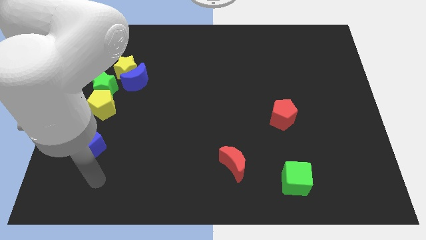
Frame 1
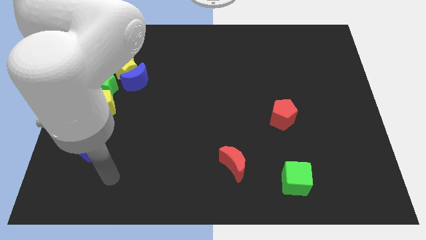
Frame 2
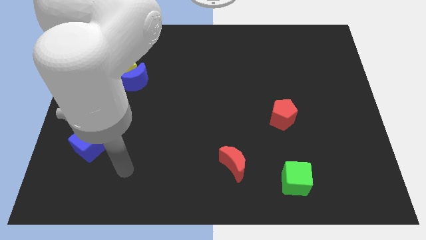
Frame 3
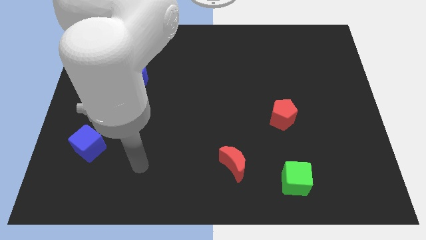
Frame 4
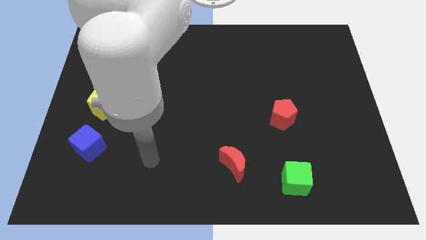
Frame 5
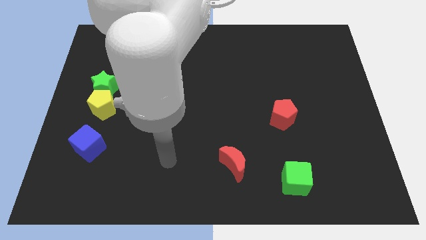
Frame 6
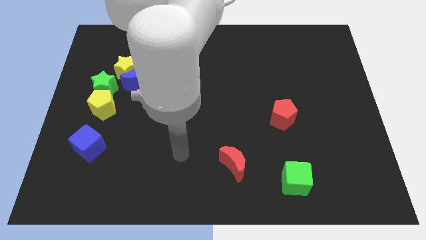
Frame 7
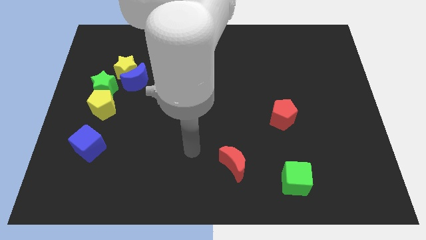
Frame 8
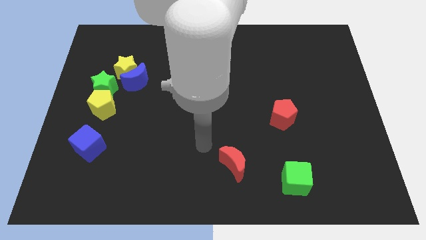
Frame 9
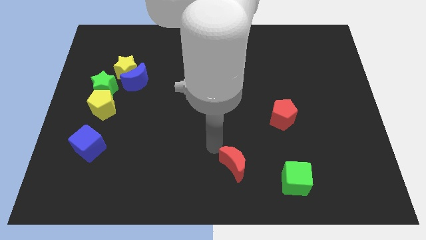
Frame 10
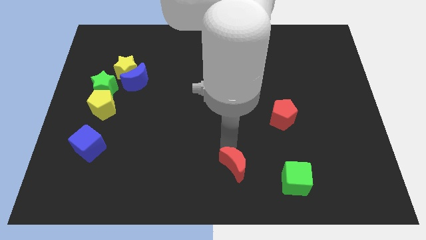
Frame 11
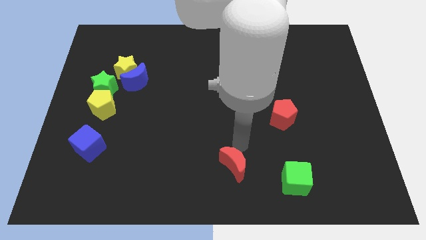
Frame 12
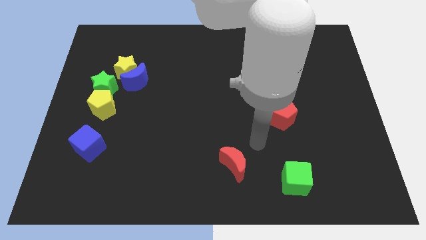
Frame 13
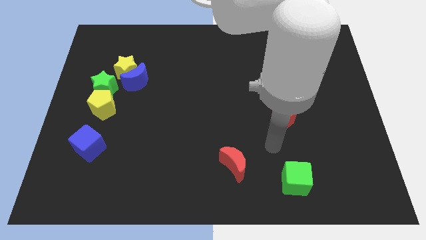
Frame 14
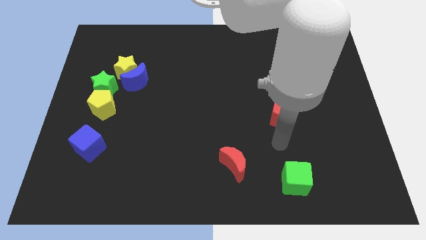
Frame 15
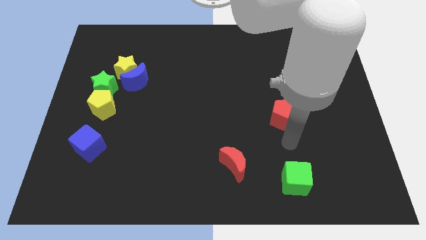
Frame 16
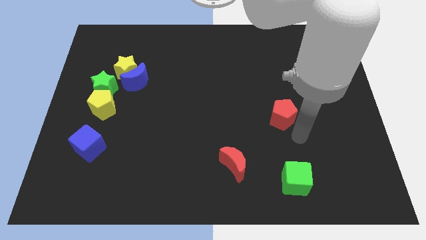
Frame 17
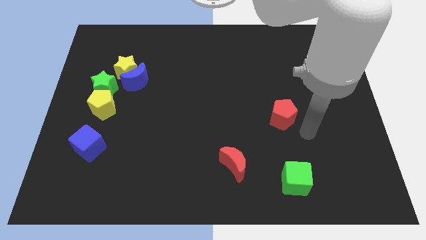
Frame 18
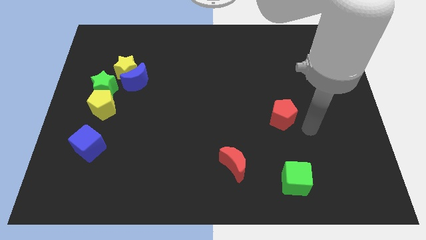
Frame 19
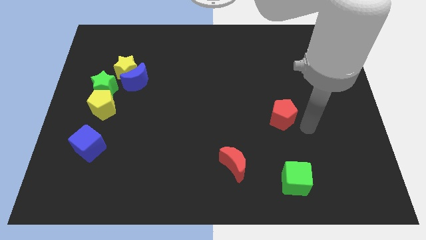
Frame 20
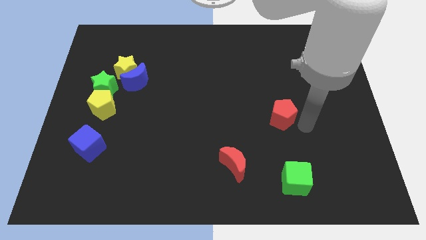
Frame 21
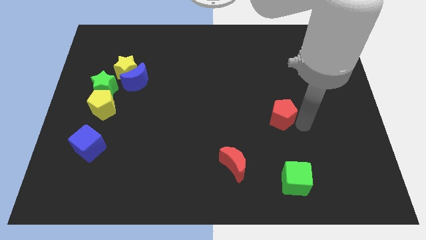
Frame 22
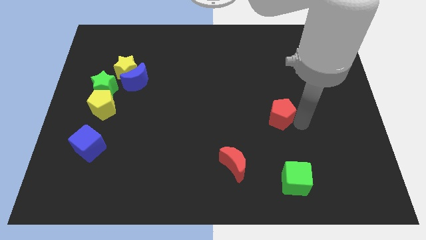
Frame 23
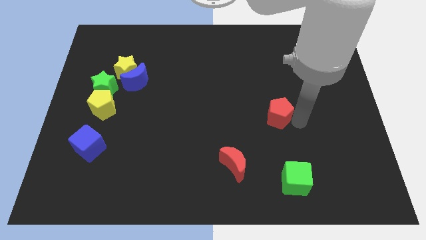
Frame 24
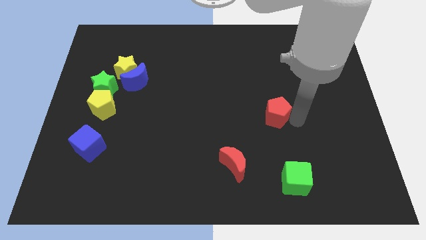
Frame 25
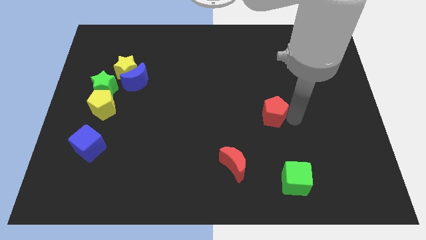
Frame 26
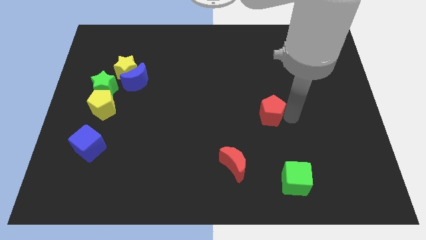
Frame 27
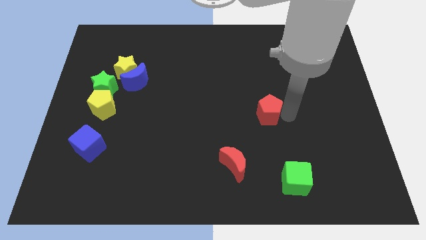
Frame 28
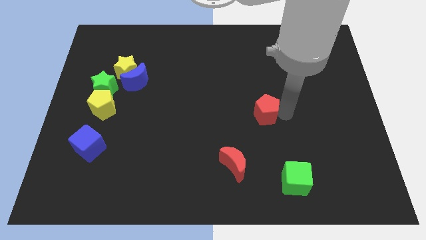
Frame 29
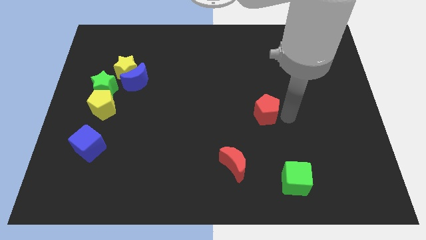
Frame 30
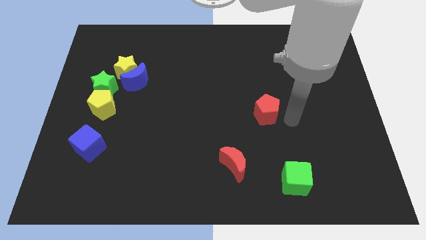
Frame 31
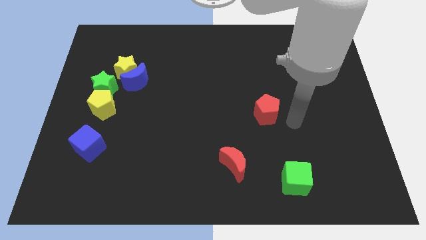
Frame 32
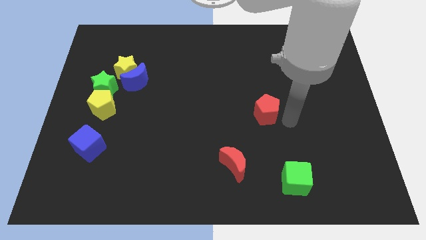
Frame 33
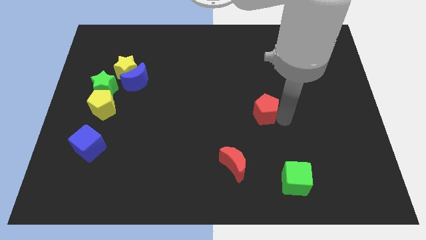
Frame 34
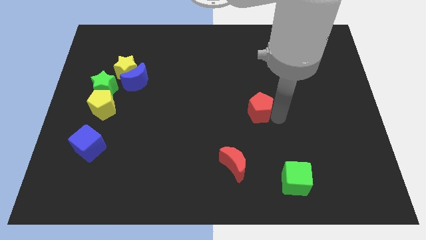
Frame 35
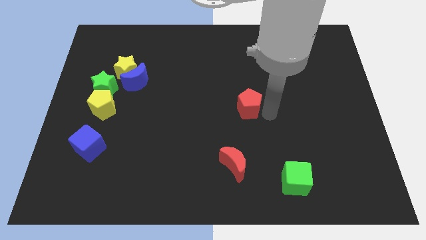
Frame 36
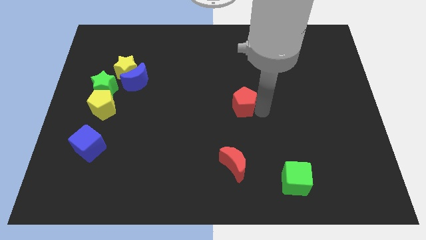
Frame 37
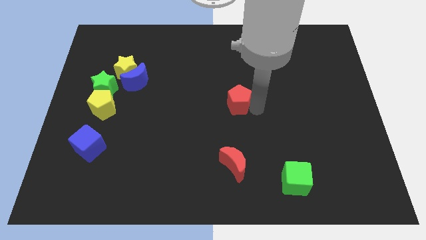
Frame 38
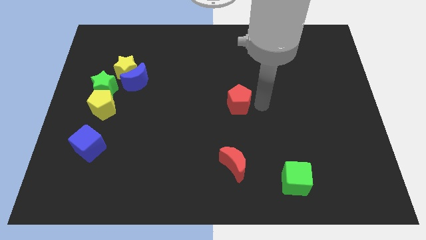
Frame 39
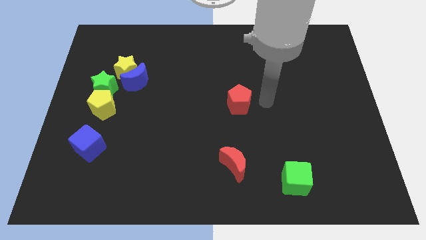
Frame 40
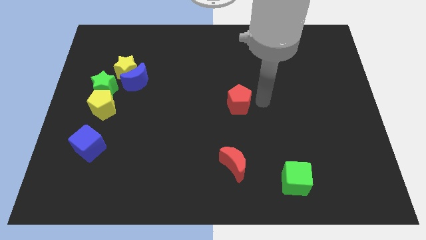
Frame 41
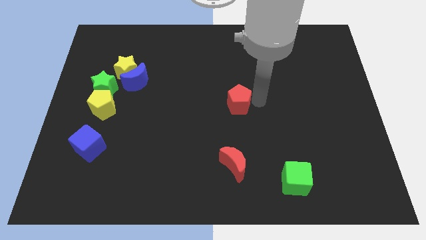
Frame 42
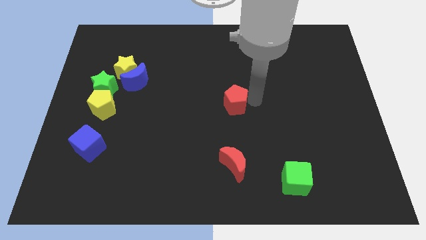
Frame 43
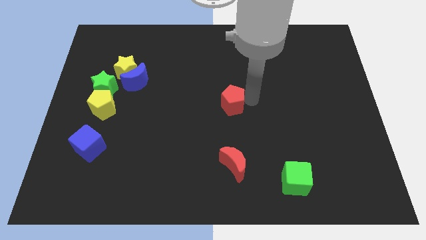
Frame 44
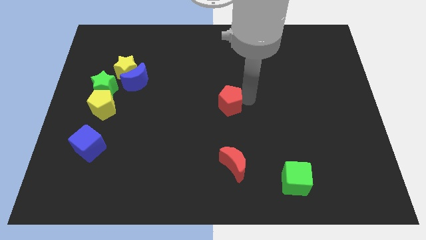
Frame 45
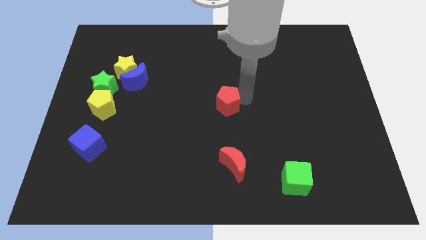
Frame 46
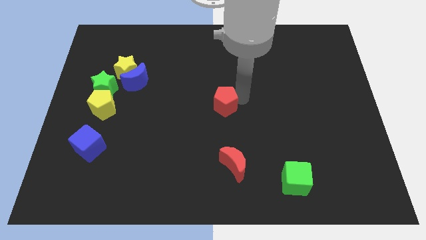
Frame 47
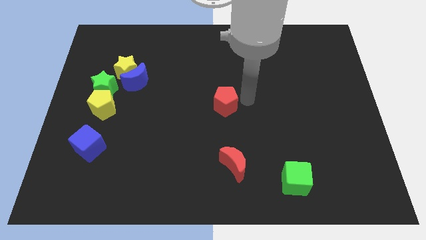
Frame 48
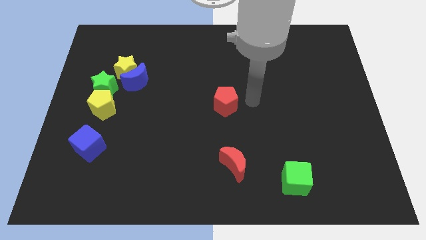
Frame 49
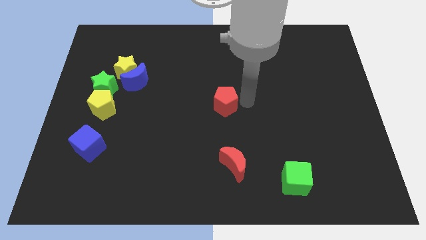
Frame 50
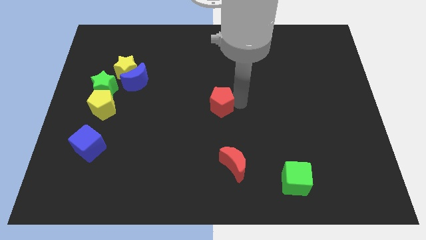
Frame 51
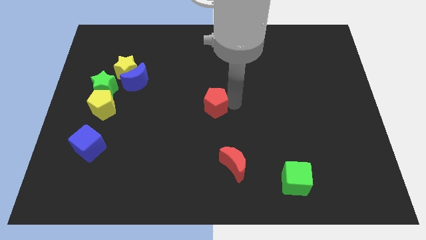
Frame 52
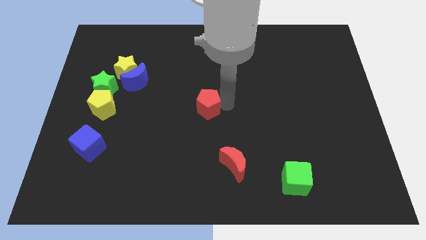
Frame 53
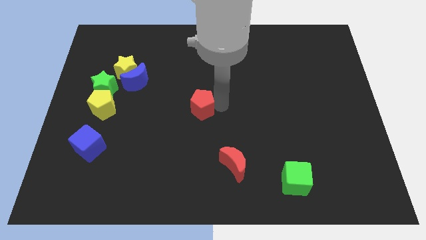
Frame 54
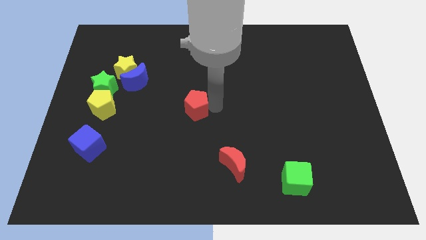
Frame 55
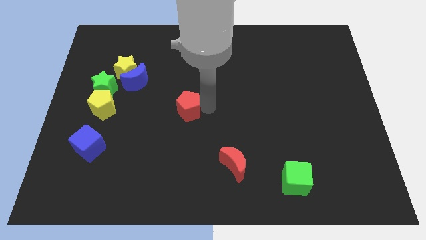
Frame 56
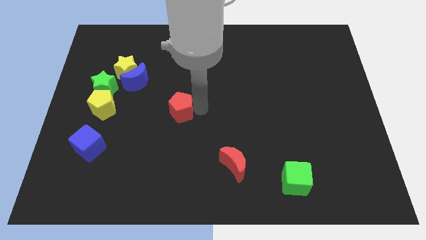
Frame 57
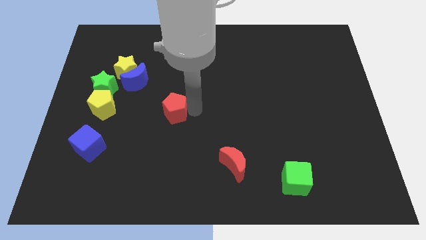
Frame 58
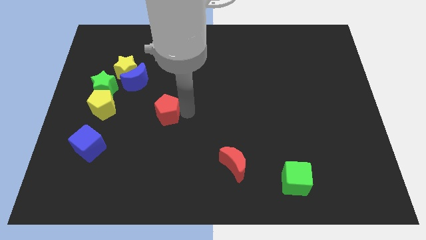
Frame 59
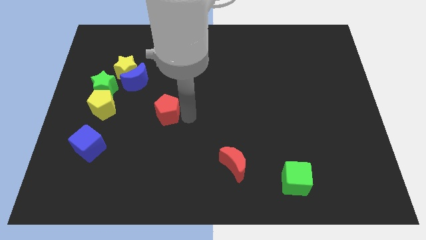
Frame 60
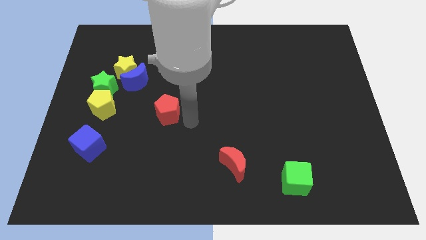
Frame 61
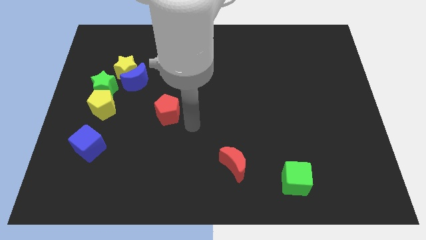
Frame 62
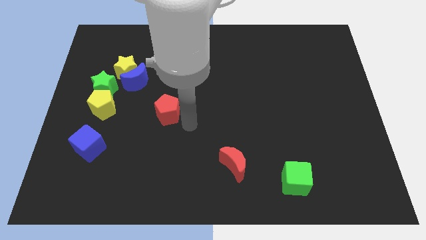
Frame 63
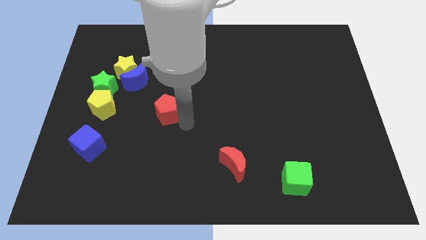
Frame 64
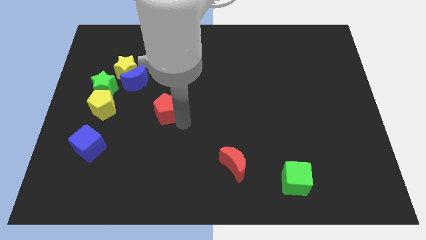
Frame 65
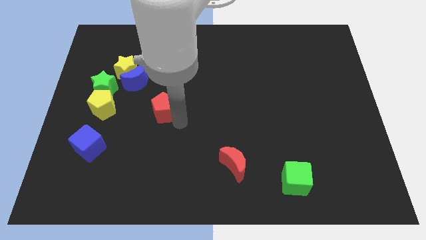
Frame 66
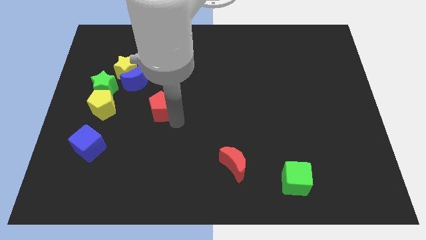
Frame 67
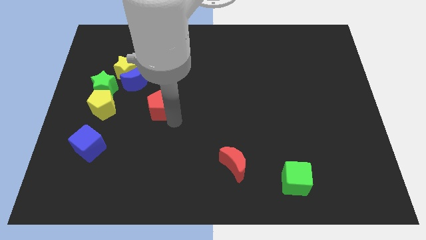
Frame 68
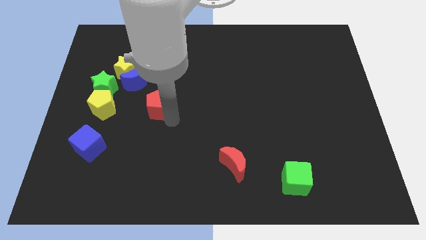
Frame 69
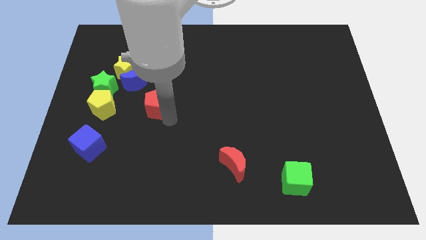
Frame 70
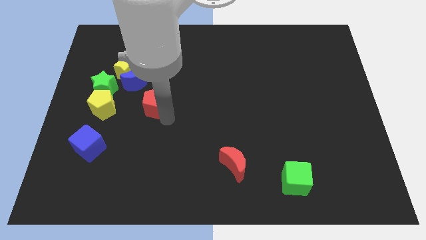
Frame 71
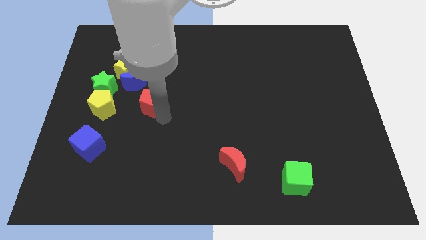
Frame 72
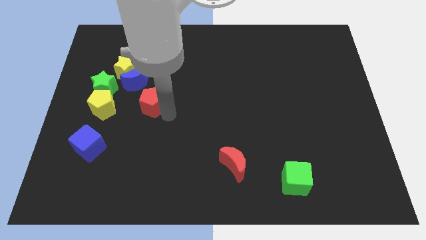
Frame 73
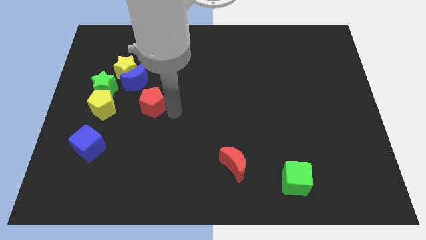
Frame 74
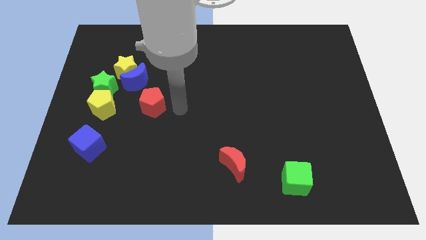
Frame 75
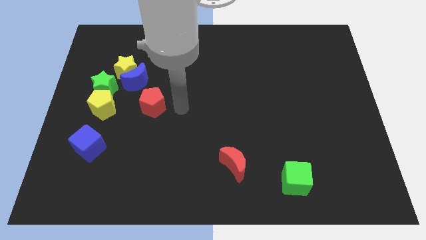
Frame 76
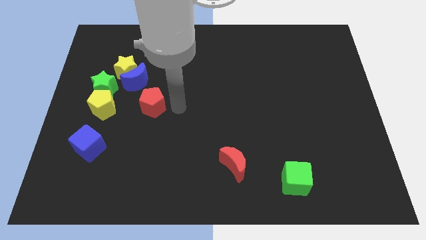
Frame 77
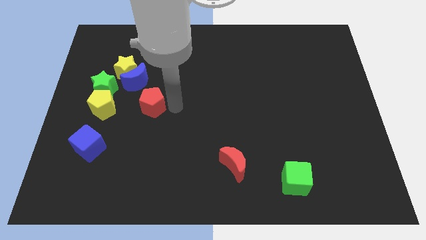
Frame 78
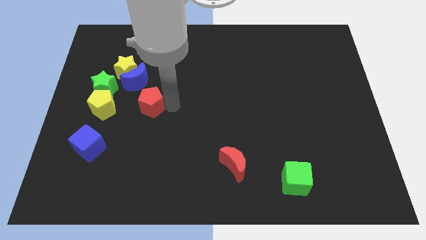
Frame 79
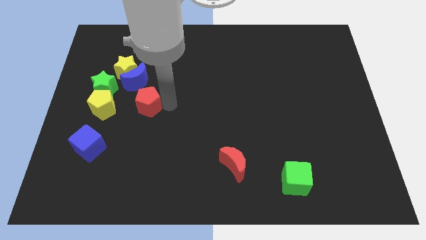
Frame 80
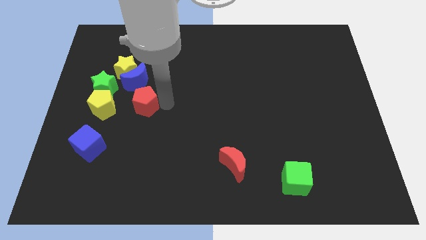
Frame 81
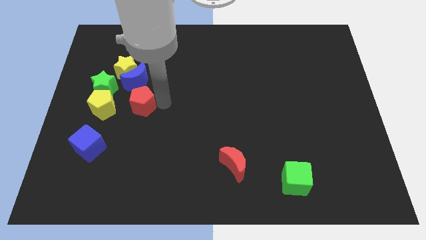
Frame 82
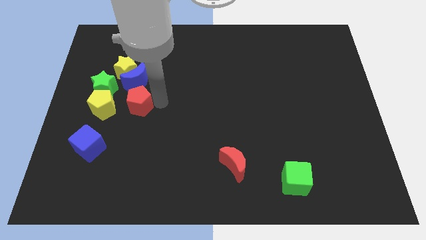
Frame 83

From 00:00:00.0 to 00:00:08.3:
move the red pentagon to the bottom of the yellow star
